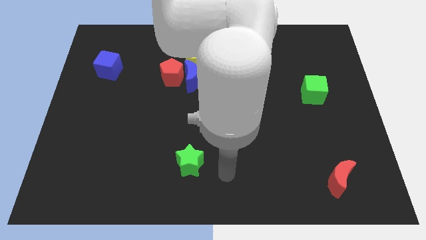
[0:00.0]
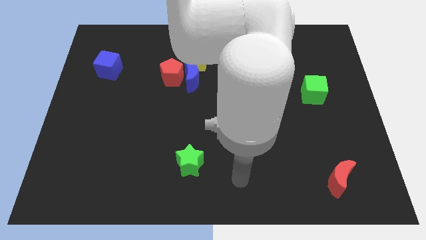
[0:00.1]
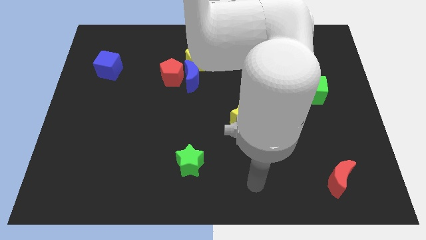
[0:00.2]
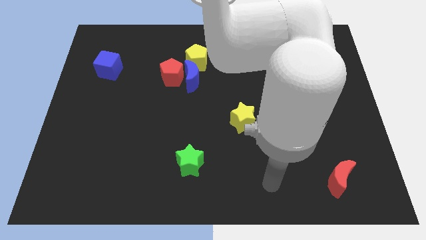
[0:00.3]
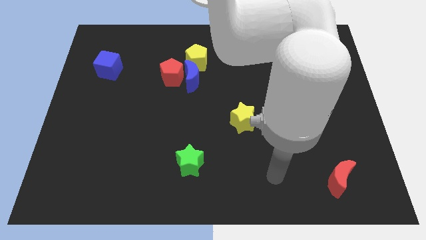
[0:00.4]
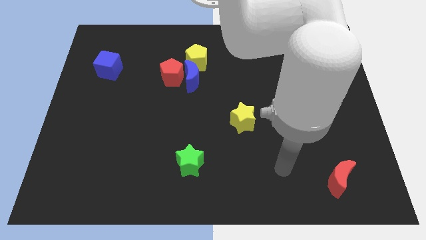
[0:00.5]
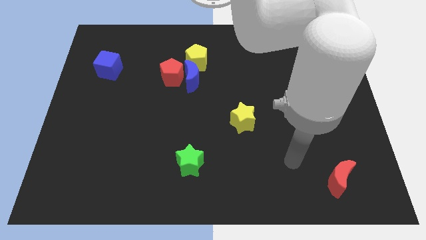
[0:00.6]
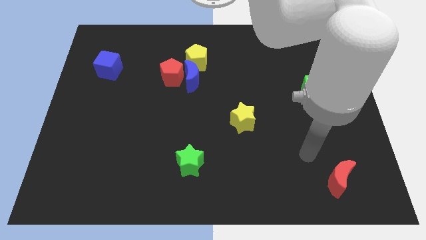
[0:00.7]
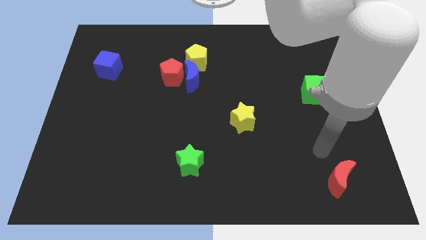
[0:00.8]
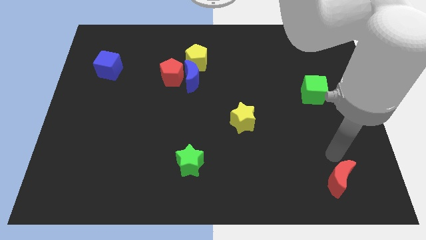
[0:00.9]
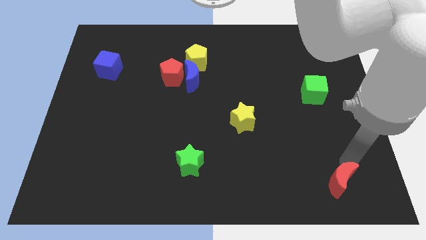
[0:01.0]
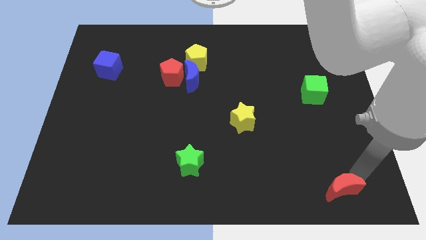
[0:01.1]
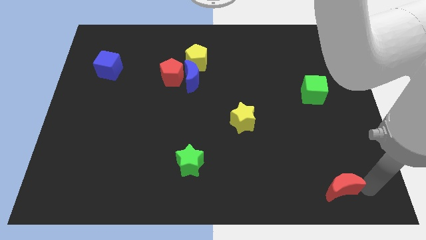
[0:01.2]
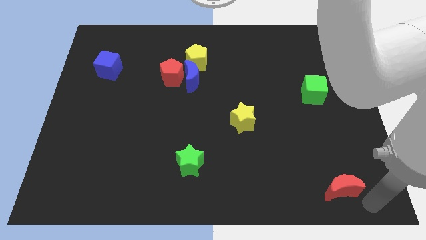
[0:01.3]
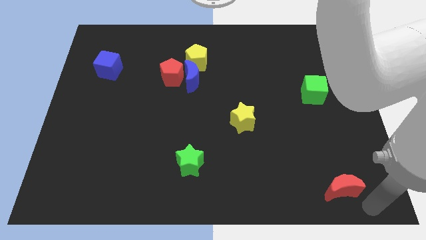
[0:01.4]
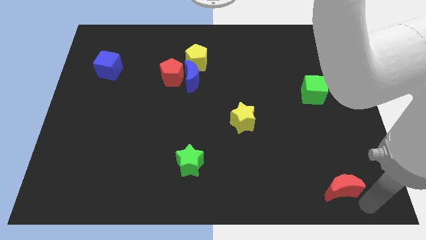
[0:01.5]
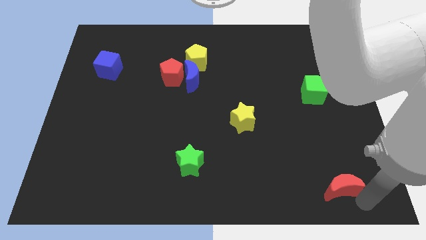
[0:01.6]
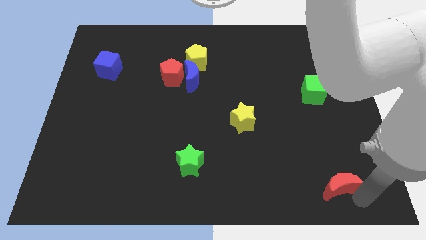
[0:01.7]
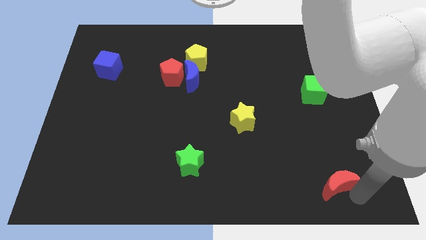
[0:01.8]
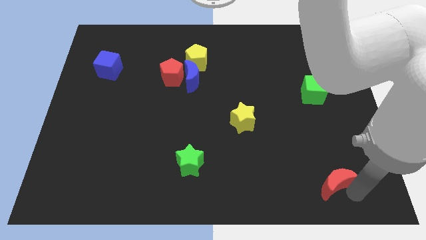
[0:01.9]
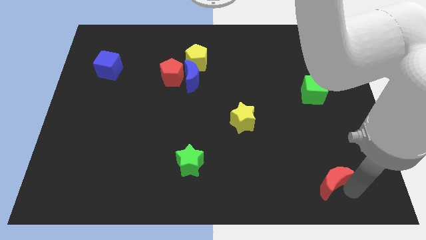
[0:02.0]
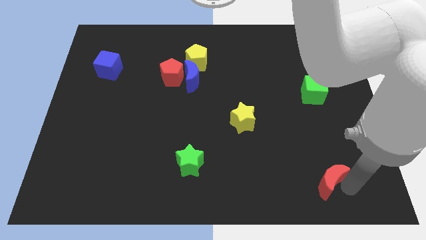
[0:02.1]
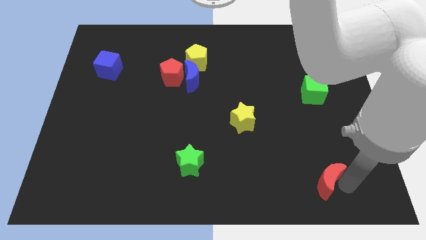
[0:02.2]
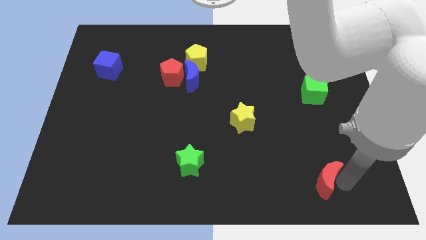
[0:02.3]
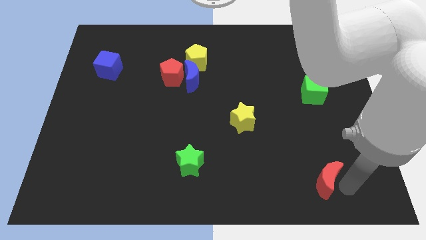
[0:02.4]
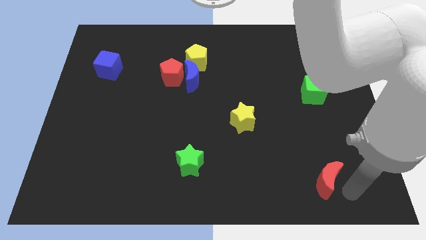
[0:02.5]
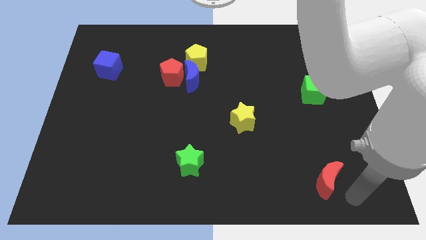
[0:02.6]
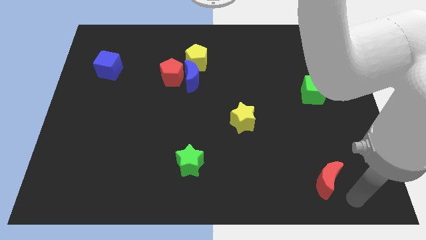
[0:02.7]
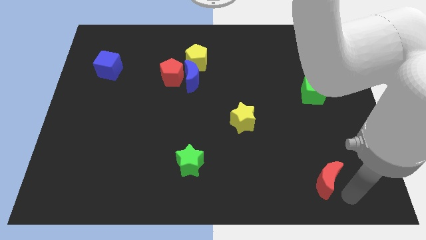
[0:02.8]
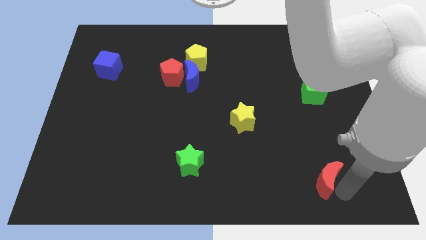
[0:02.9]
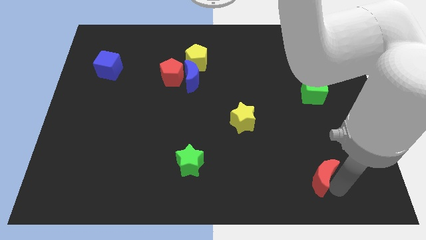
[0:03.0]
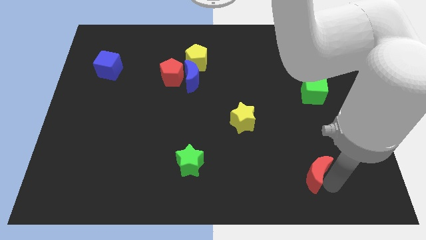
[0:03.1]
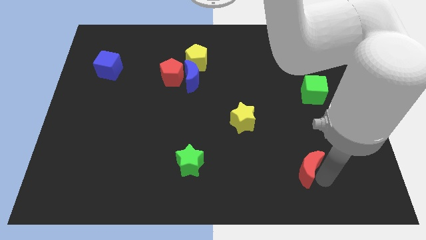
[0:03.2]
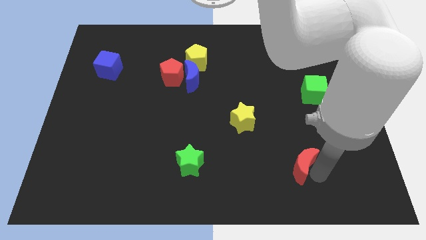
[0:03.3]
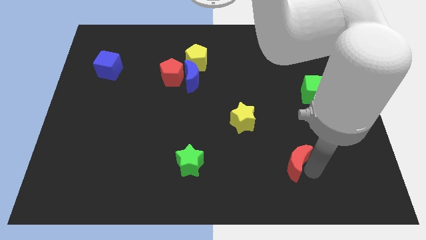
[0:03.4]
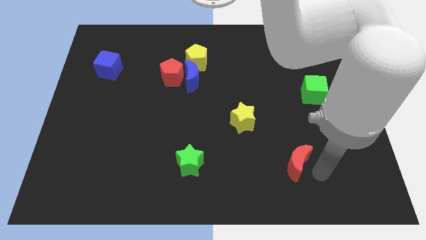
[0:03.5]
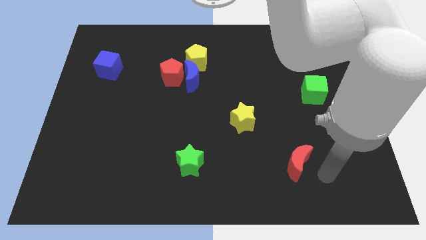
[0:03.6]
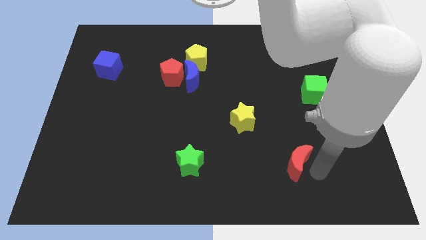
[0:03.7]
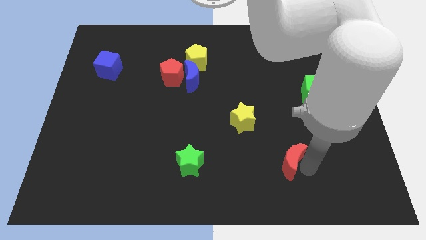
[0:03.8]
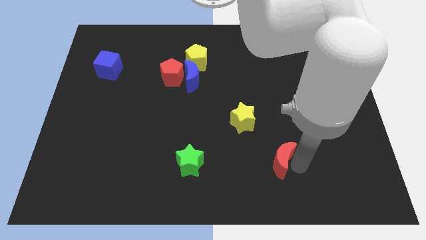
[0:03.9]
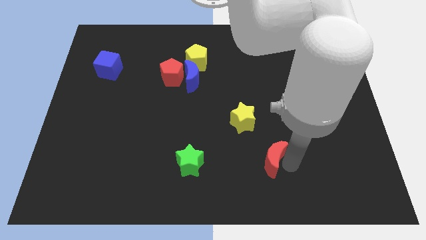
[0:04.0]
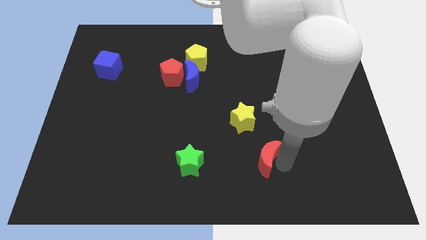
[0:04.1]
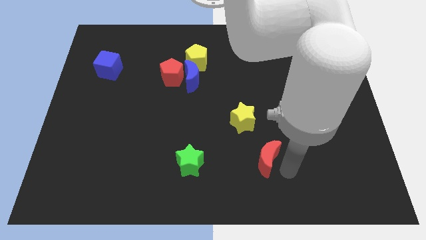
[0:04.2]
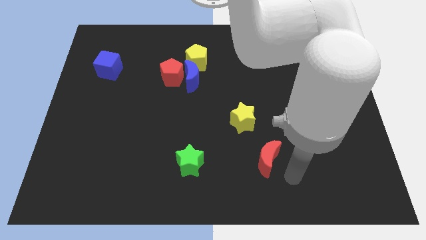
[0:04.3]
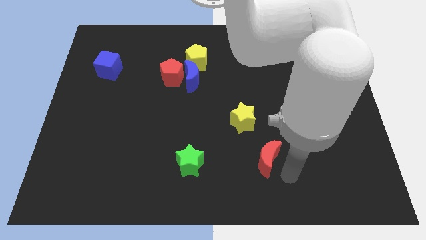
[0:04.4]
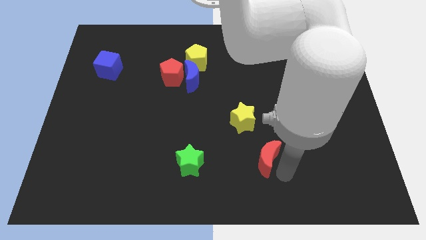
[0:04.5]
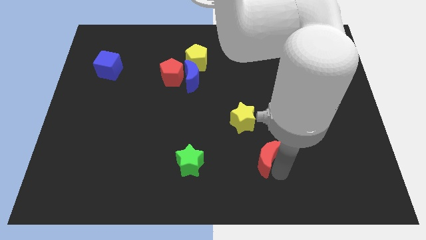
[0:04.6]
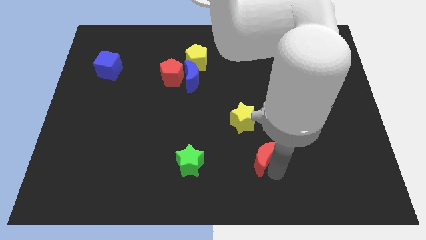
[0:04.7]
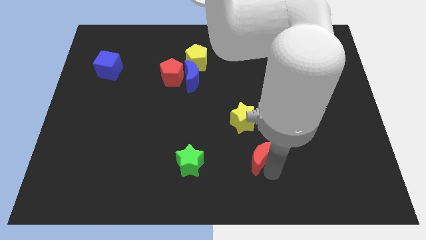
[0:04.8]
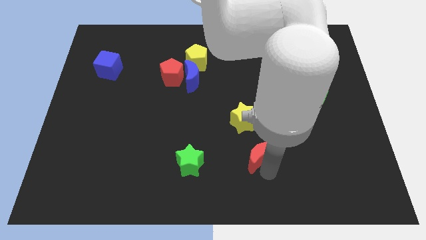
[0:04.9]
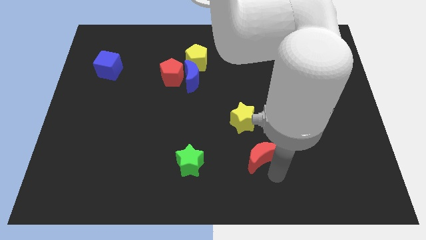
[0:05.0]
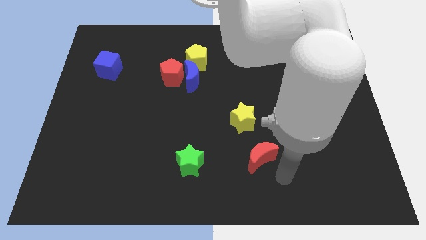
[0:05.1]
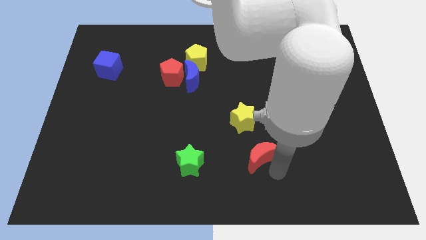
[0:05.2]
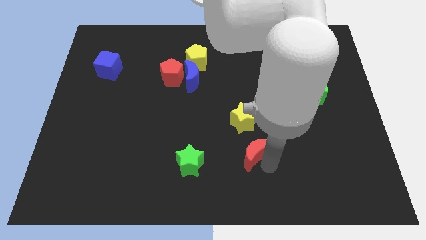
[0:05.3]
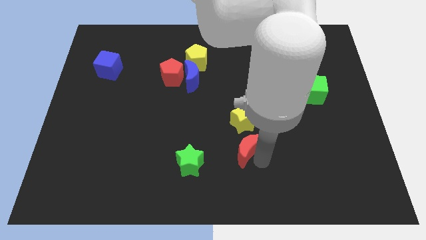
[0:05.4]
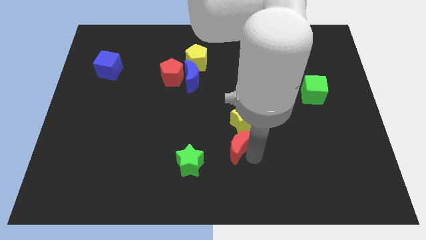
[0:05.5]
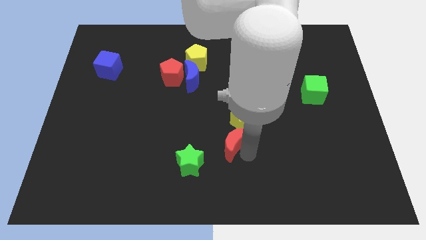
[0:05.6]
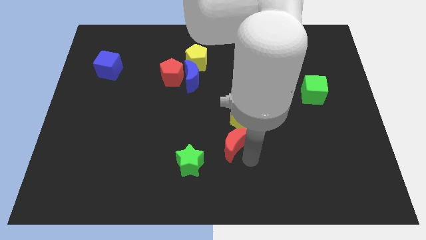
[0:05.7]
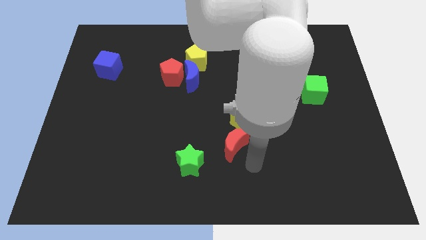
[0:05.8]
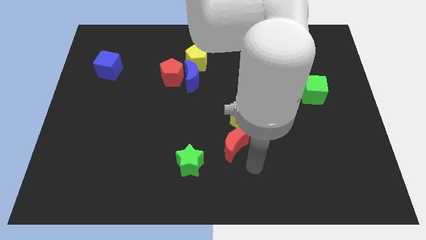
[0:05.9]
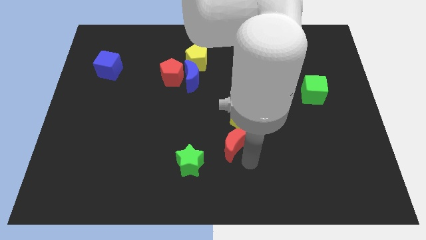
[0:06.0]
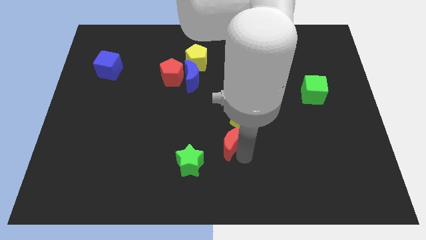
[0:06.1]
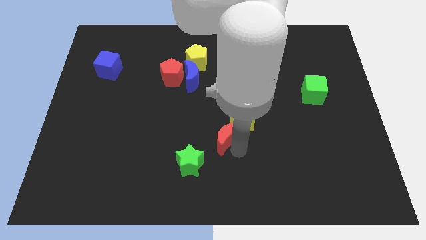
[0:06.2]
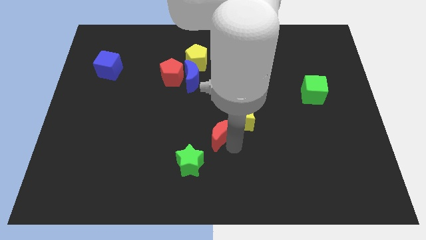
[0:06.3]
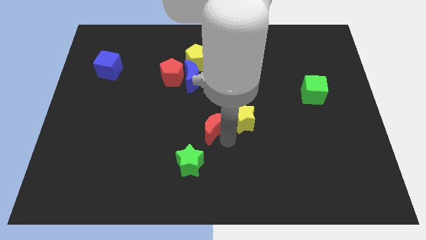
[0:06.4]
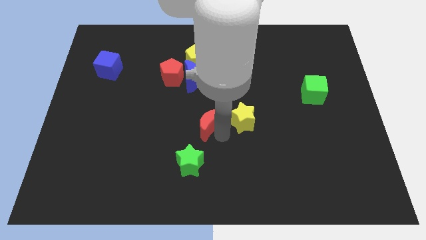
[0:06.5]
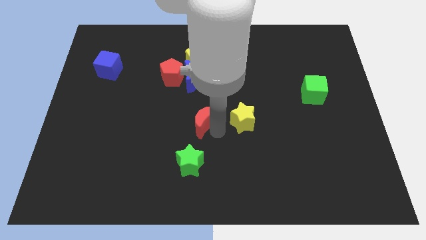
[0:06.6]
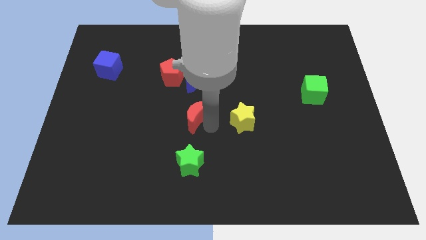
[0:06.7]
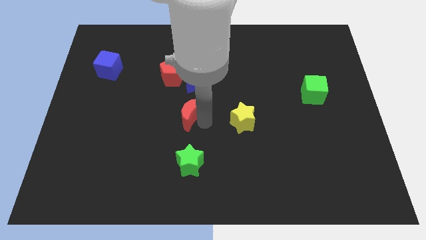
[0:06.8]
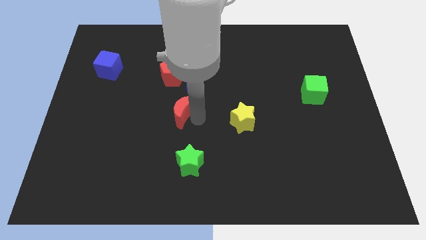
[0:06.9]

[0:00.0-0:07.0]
push the red moon below the red pentagon
